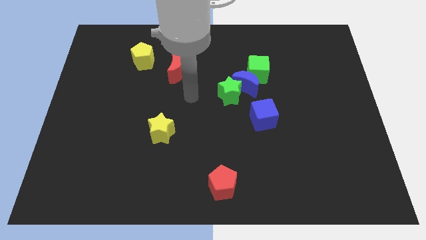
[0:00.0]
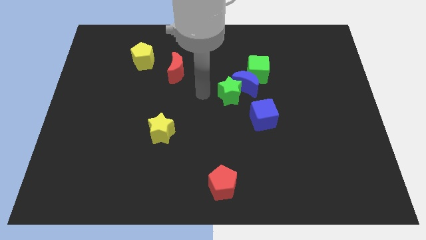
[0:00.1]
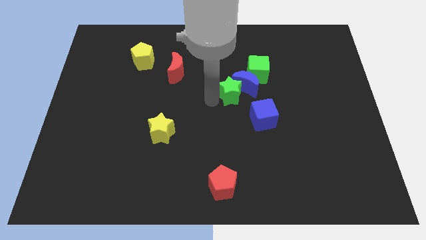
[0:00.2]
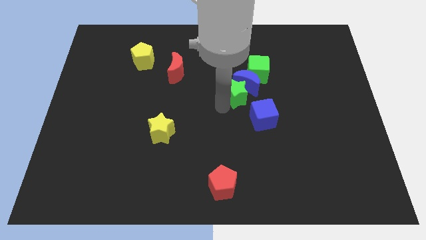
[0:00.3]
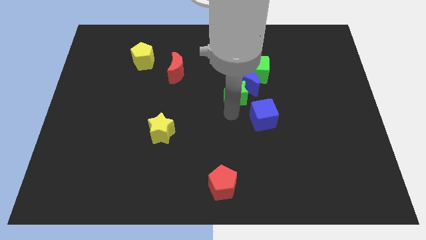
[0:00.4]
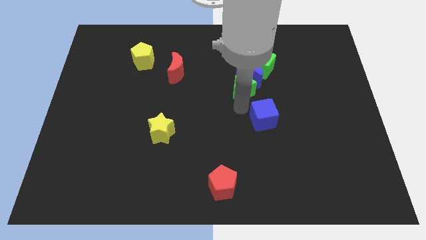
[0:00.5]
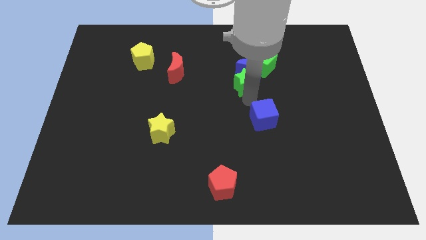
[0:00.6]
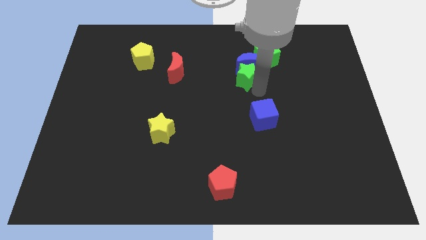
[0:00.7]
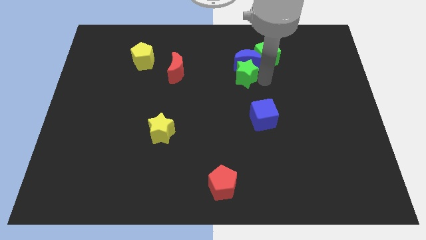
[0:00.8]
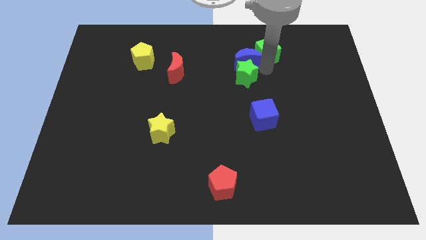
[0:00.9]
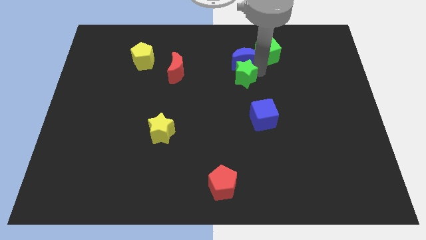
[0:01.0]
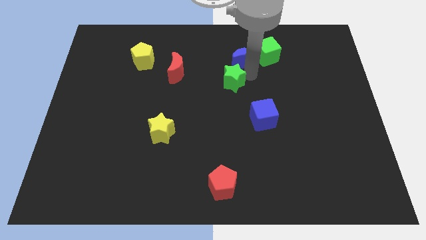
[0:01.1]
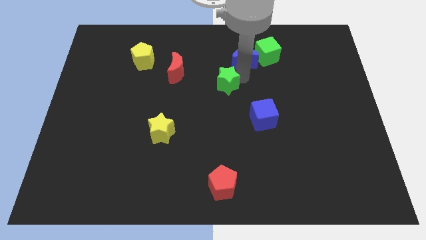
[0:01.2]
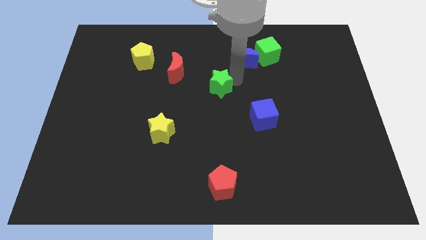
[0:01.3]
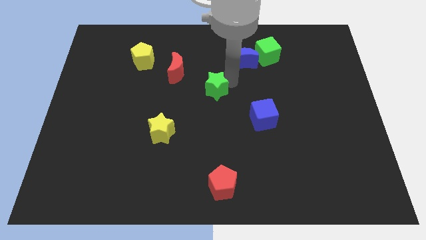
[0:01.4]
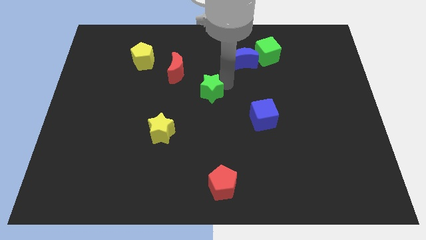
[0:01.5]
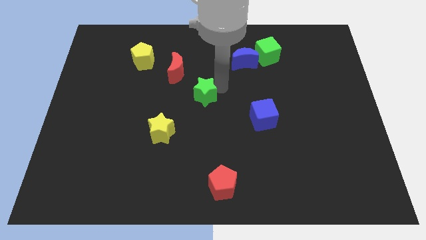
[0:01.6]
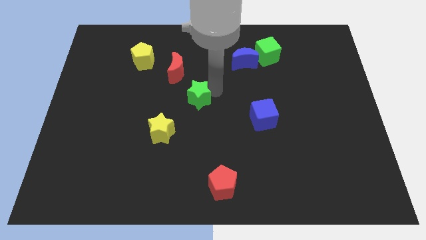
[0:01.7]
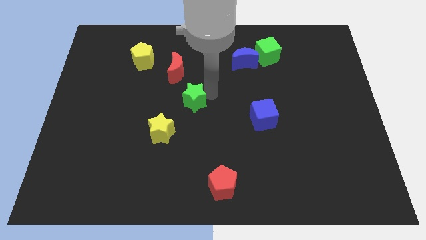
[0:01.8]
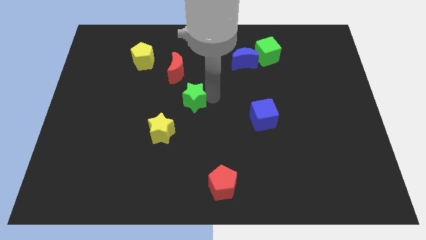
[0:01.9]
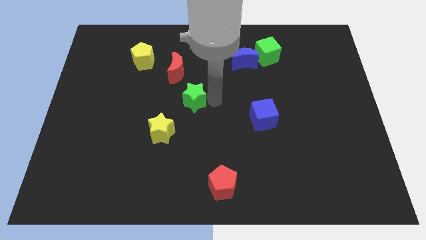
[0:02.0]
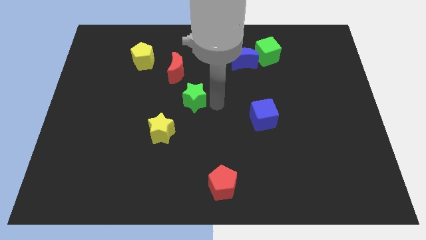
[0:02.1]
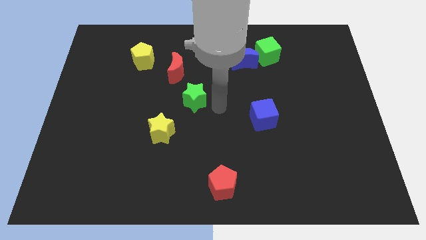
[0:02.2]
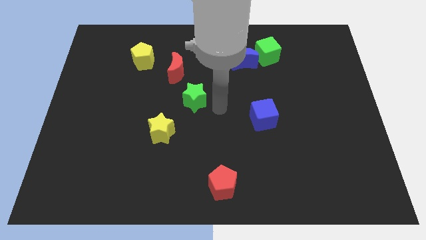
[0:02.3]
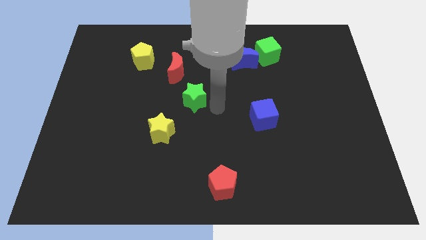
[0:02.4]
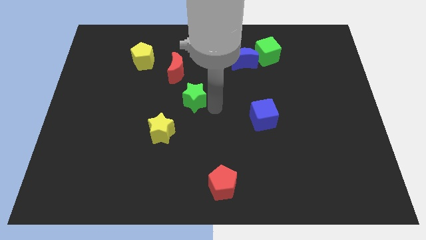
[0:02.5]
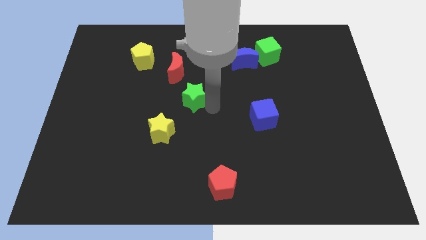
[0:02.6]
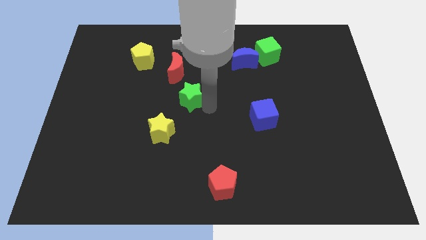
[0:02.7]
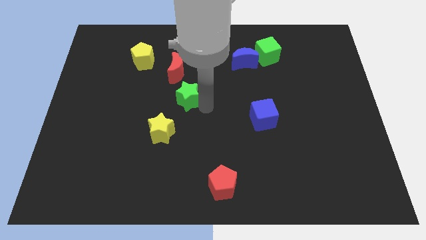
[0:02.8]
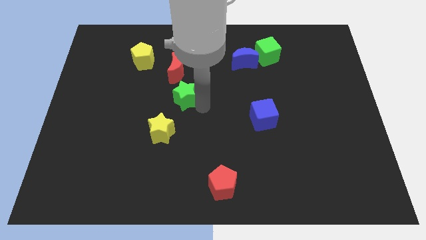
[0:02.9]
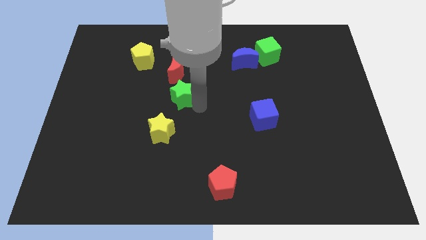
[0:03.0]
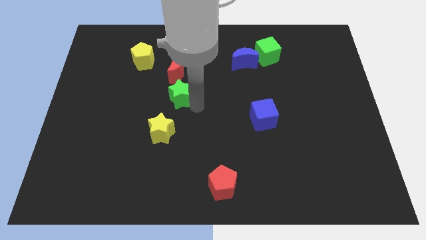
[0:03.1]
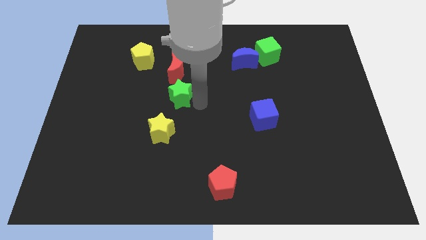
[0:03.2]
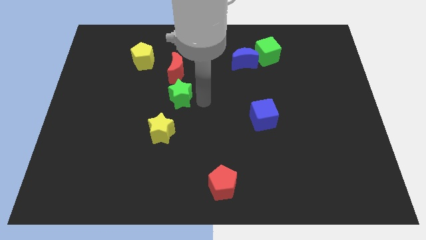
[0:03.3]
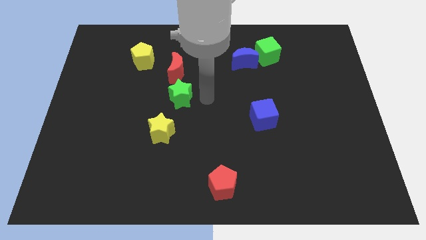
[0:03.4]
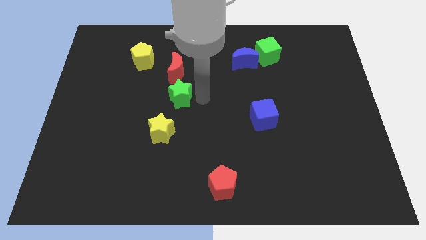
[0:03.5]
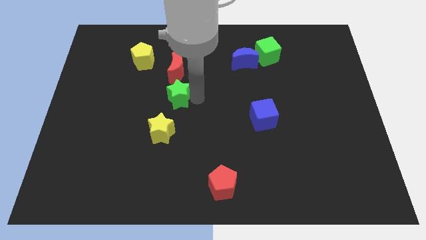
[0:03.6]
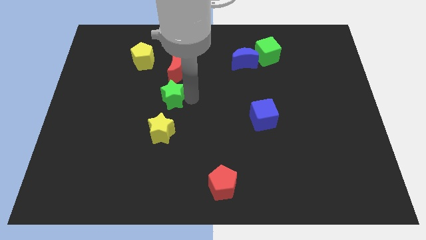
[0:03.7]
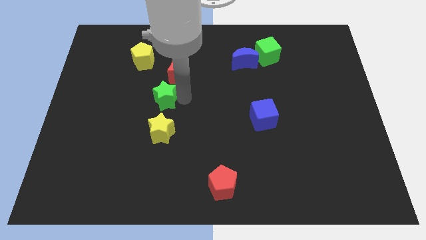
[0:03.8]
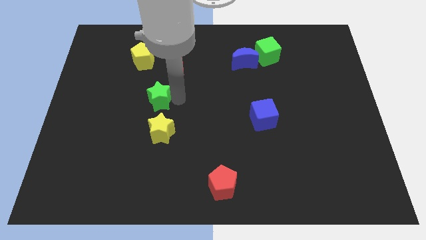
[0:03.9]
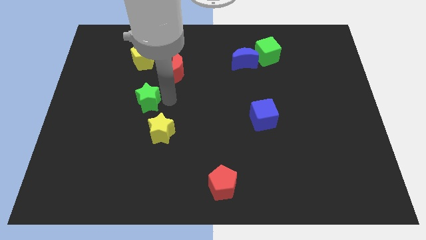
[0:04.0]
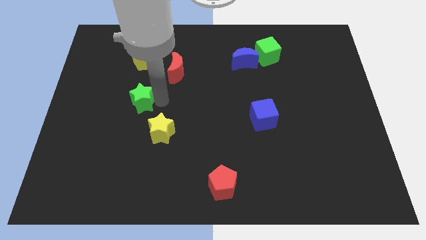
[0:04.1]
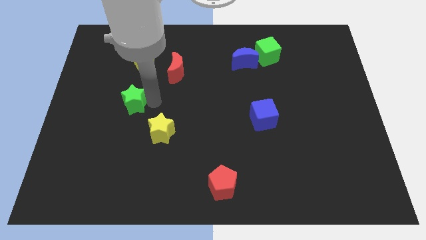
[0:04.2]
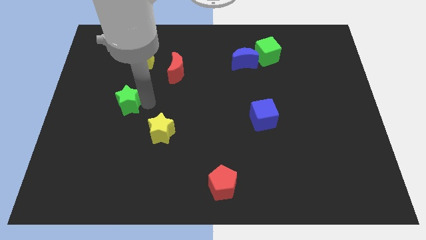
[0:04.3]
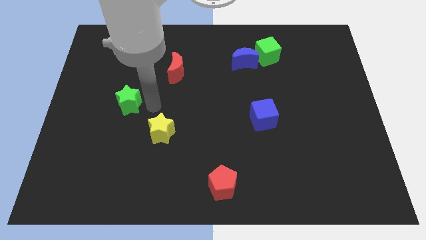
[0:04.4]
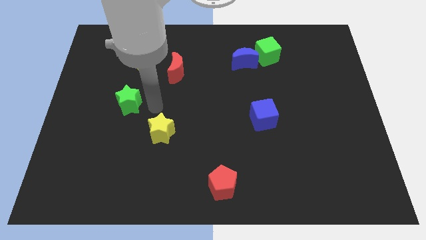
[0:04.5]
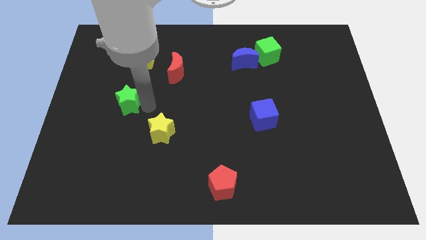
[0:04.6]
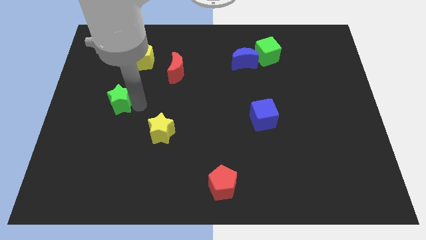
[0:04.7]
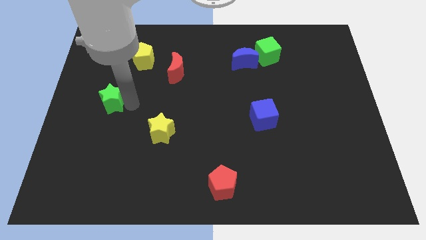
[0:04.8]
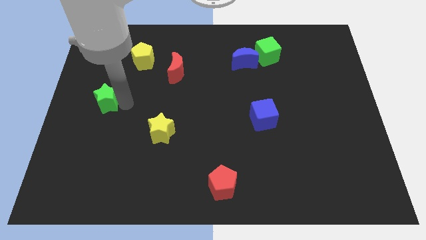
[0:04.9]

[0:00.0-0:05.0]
move the green star to the center left

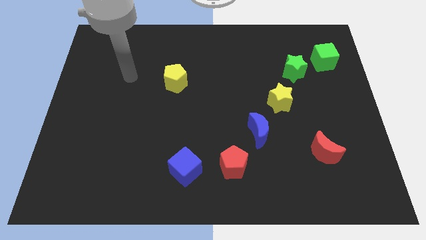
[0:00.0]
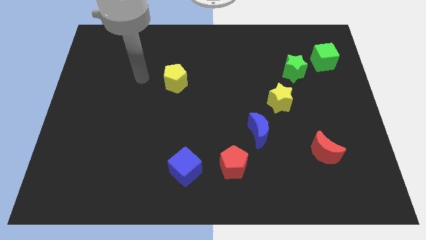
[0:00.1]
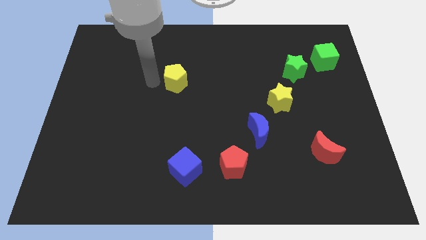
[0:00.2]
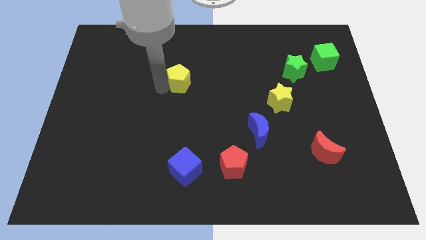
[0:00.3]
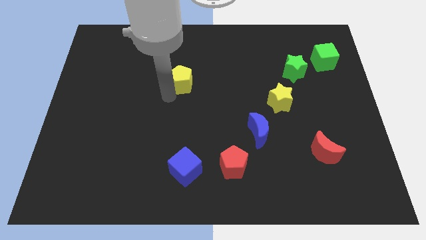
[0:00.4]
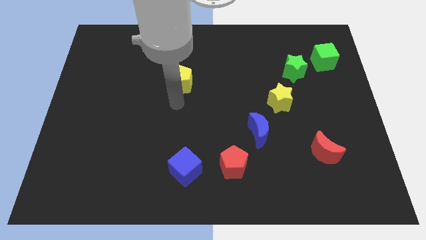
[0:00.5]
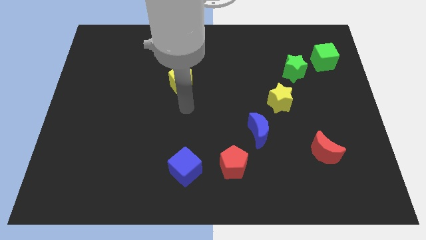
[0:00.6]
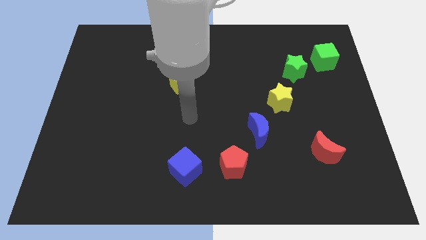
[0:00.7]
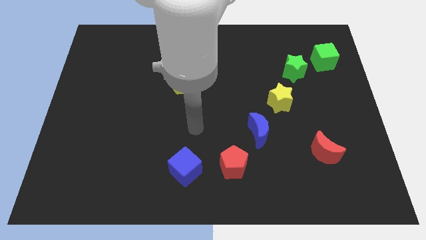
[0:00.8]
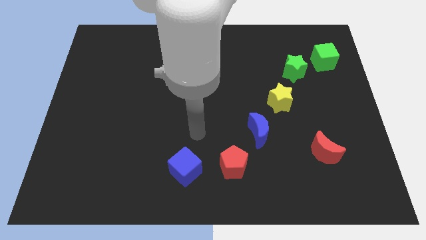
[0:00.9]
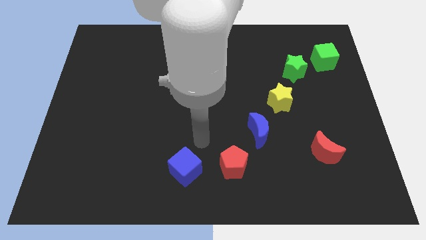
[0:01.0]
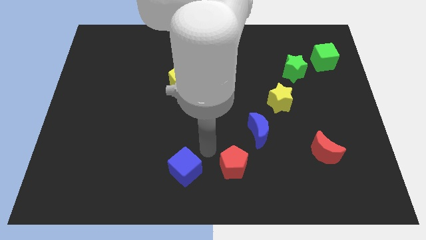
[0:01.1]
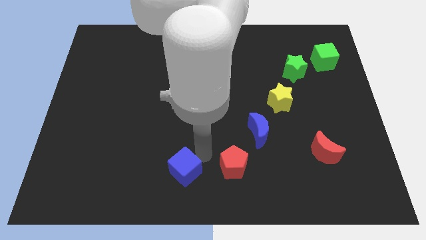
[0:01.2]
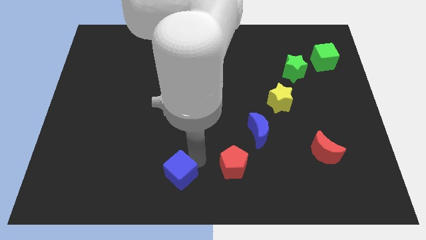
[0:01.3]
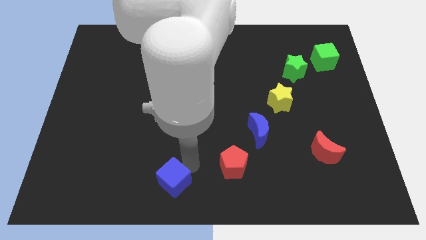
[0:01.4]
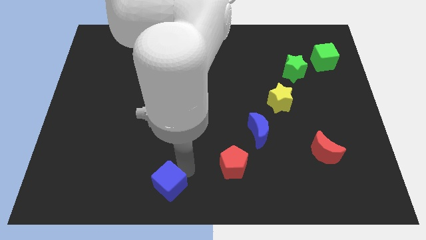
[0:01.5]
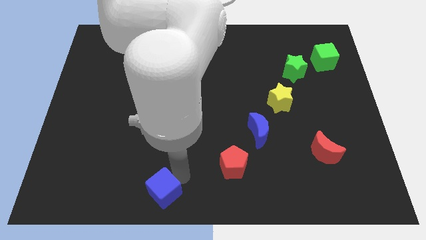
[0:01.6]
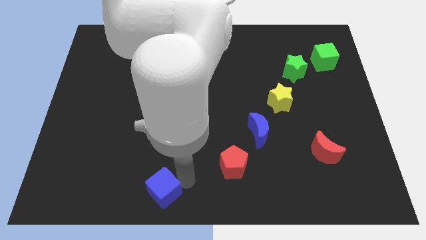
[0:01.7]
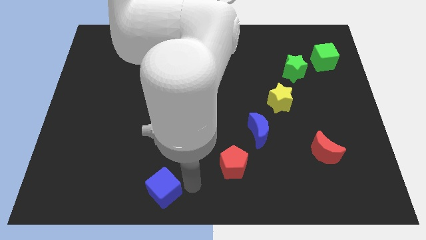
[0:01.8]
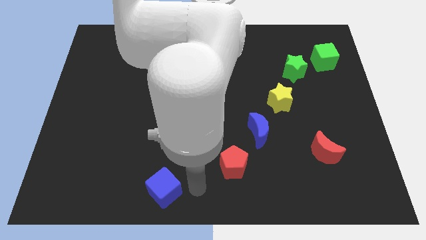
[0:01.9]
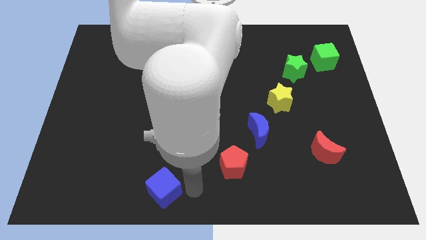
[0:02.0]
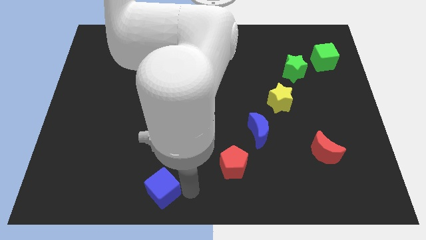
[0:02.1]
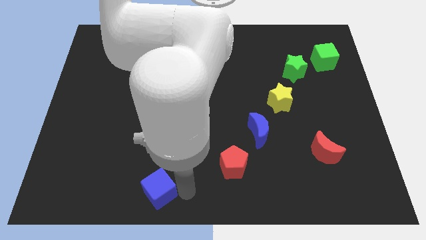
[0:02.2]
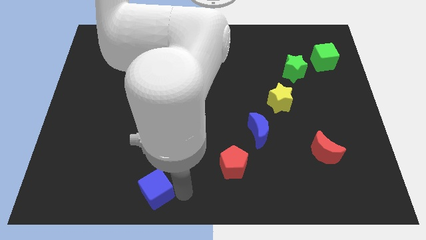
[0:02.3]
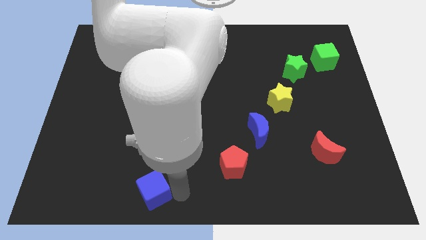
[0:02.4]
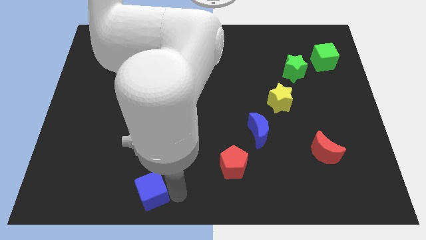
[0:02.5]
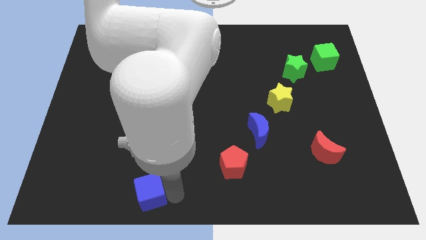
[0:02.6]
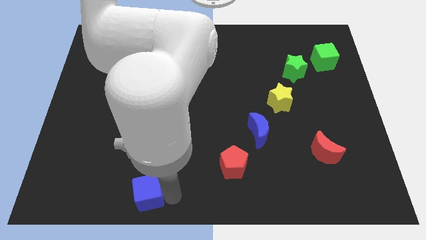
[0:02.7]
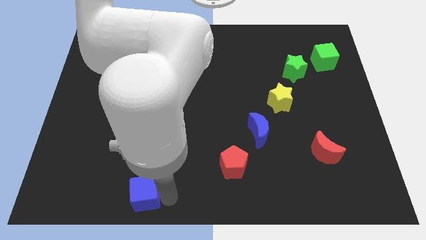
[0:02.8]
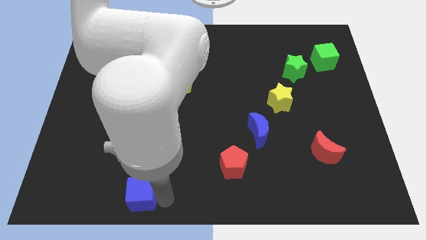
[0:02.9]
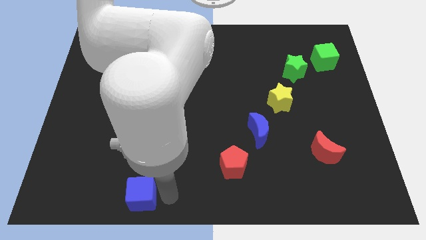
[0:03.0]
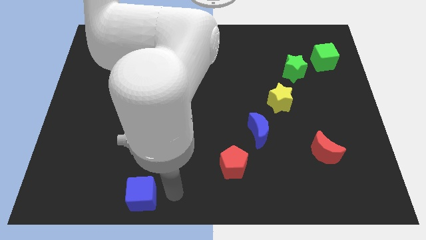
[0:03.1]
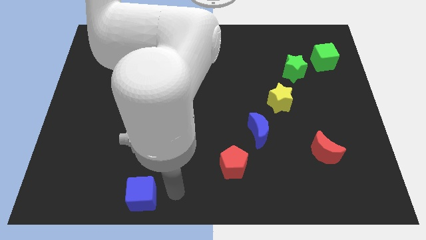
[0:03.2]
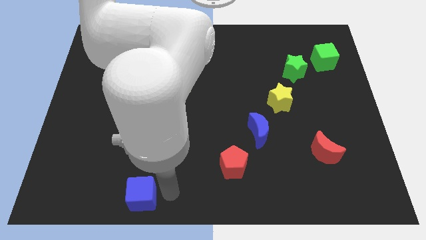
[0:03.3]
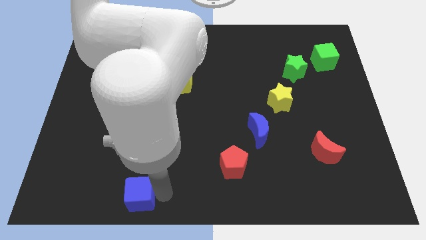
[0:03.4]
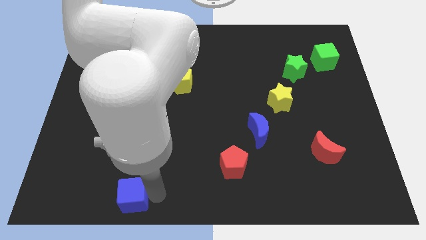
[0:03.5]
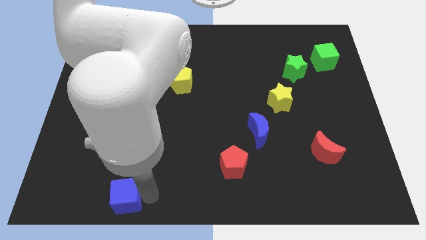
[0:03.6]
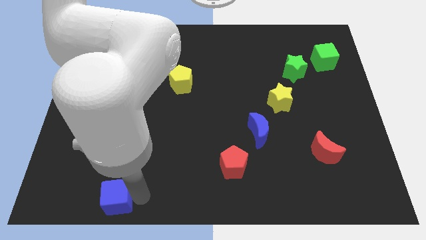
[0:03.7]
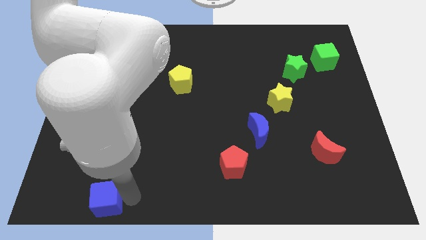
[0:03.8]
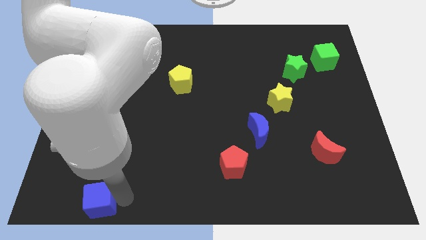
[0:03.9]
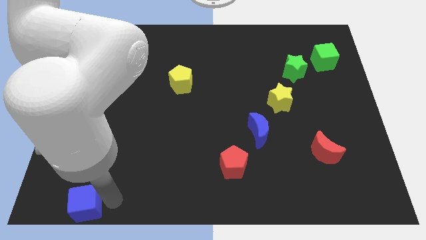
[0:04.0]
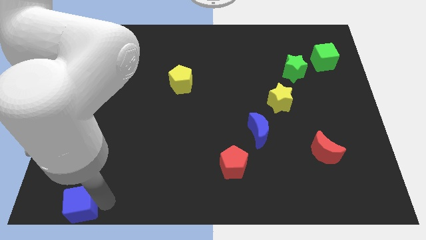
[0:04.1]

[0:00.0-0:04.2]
put the blue cube to the bottom left corner
